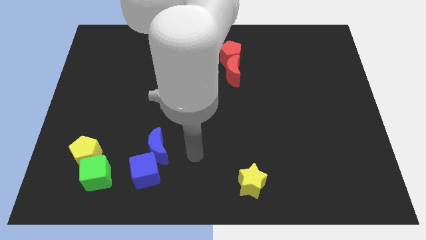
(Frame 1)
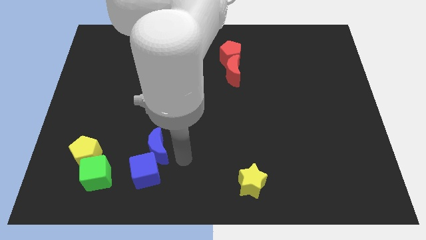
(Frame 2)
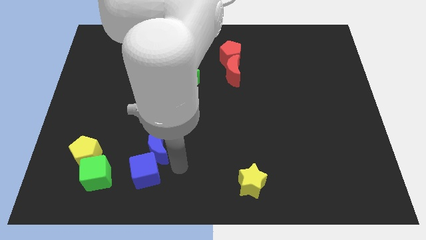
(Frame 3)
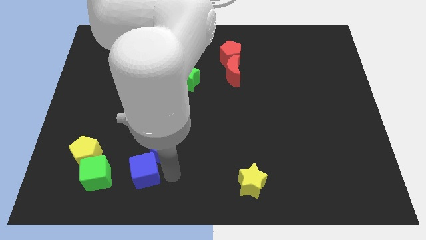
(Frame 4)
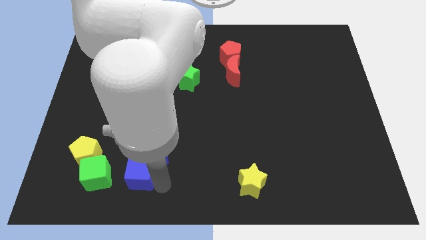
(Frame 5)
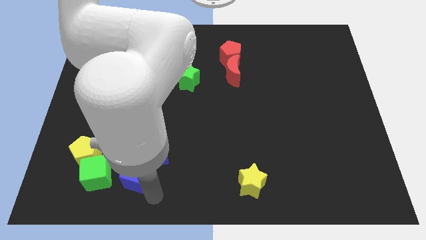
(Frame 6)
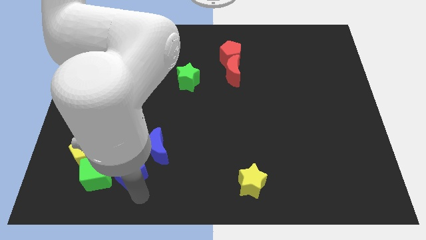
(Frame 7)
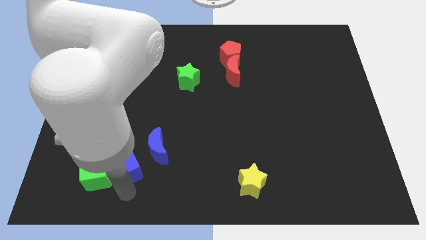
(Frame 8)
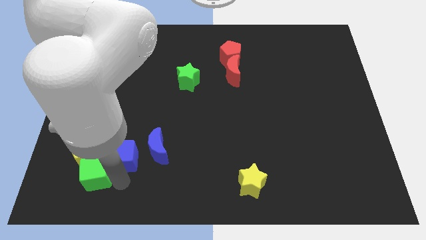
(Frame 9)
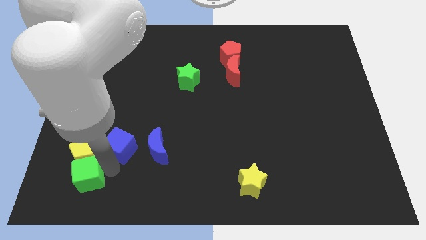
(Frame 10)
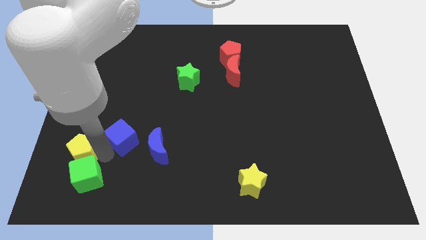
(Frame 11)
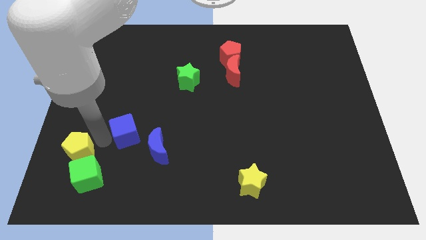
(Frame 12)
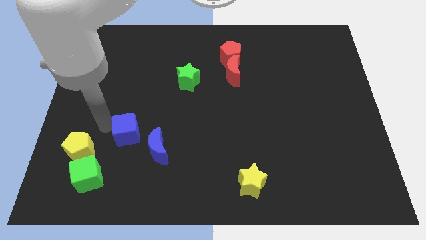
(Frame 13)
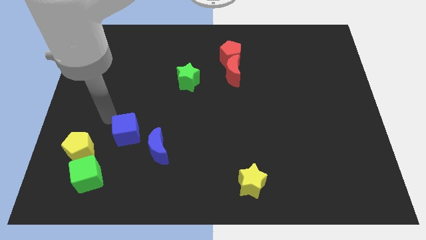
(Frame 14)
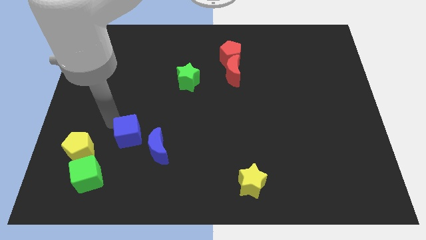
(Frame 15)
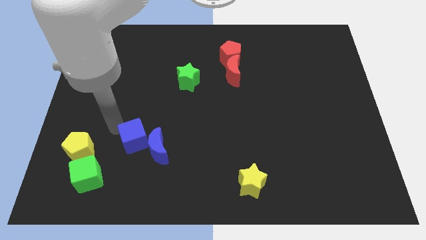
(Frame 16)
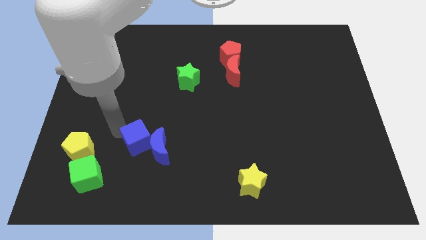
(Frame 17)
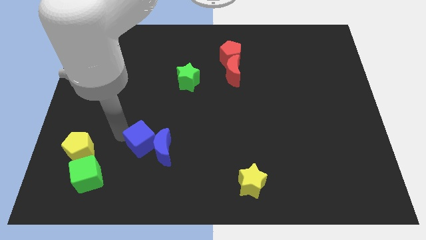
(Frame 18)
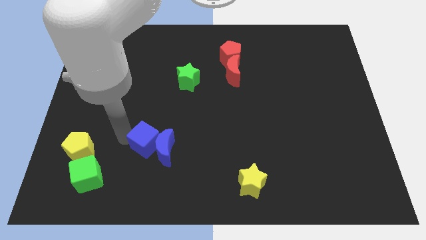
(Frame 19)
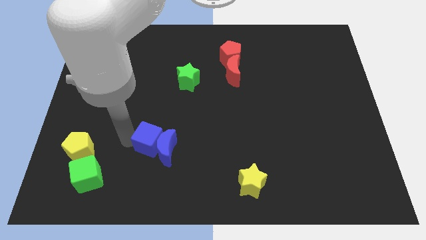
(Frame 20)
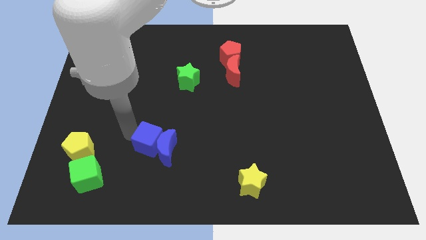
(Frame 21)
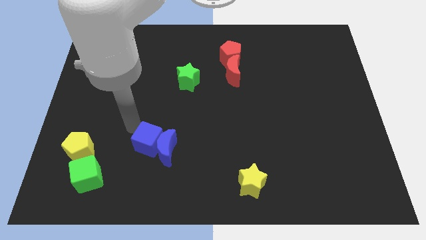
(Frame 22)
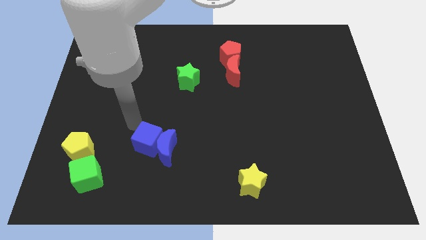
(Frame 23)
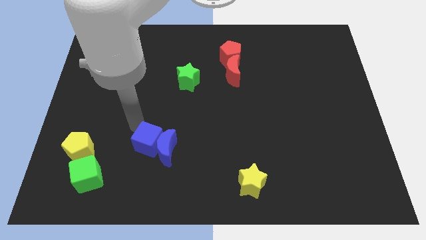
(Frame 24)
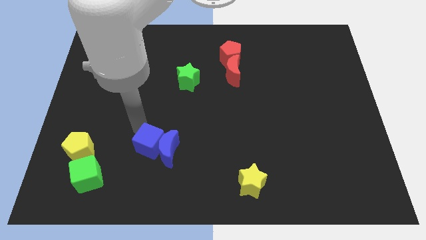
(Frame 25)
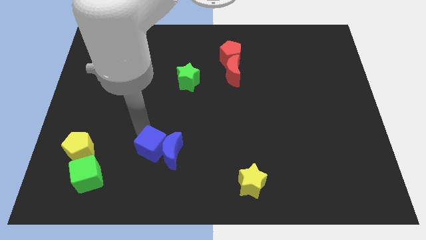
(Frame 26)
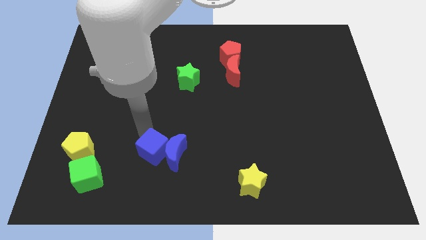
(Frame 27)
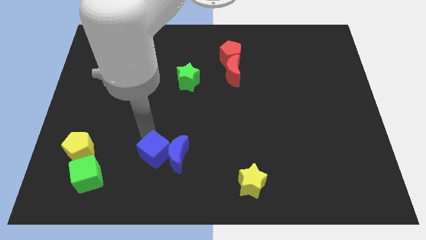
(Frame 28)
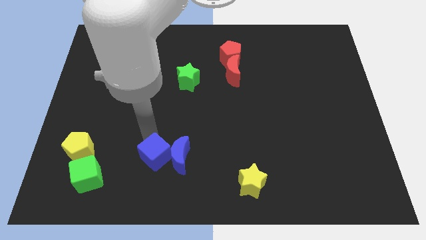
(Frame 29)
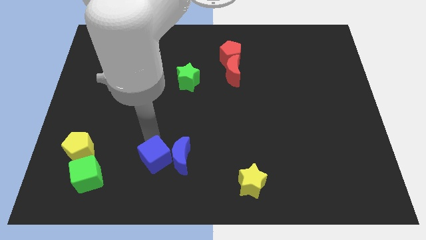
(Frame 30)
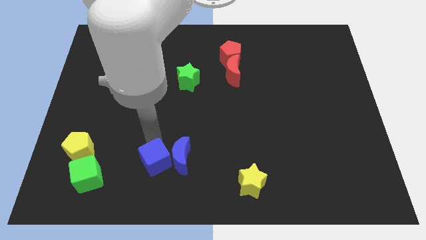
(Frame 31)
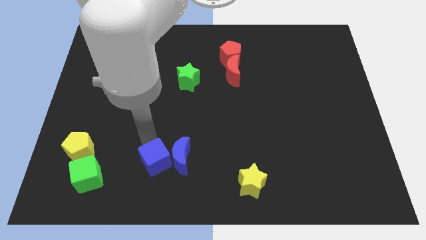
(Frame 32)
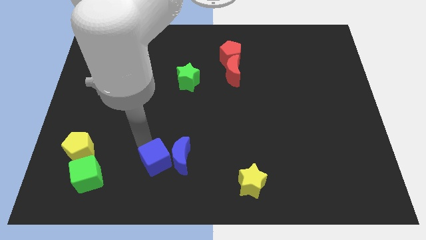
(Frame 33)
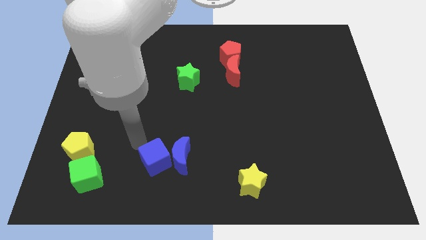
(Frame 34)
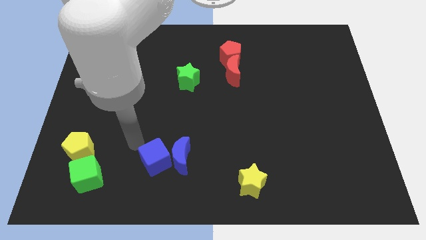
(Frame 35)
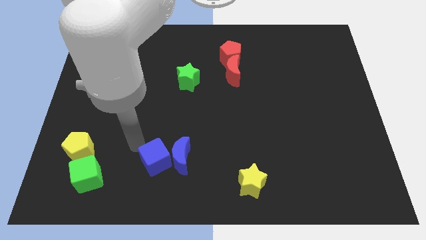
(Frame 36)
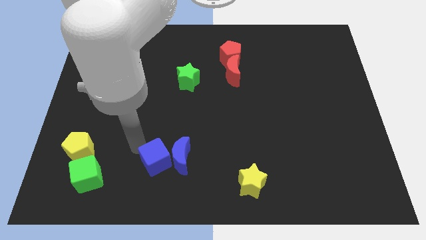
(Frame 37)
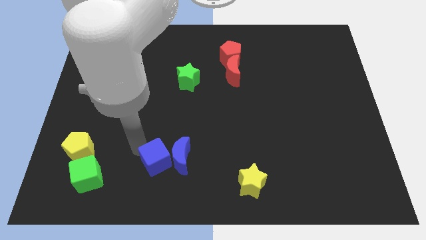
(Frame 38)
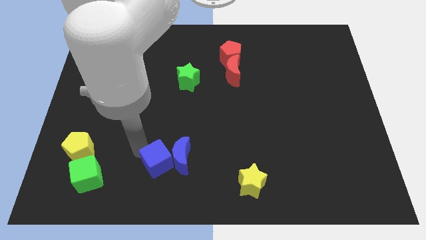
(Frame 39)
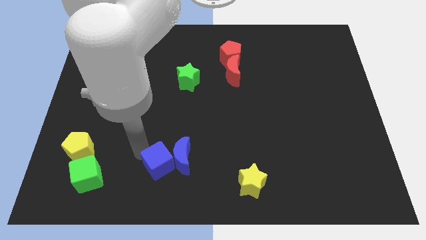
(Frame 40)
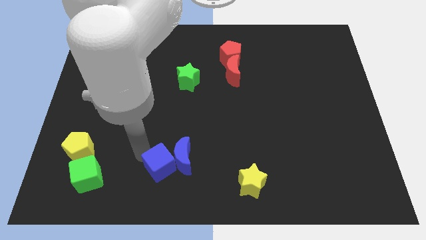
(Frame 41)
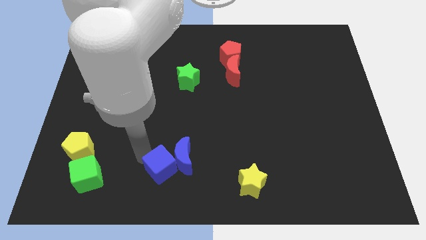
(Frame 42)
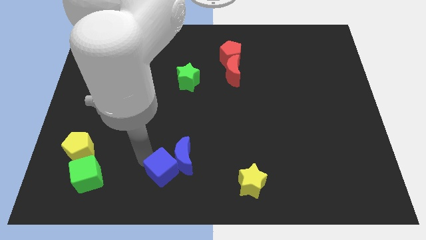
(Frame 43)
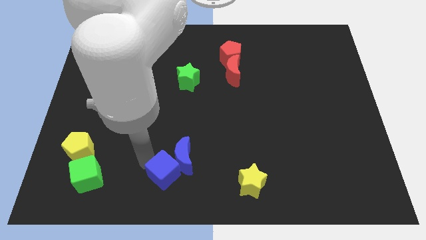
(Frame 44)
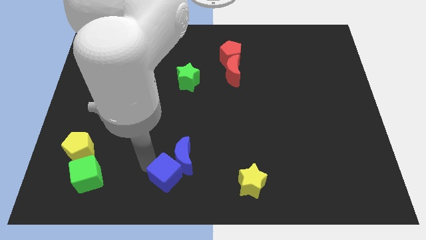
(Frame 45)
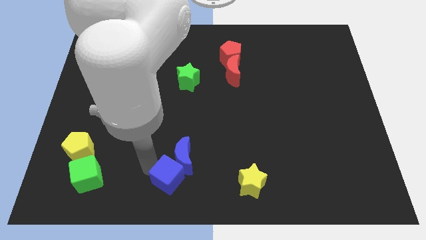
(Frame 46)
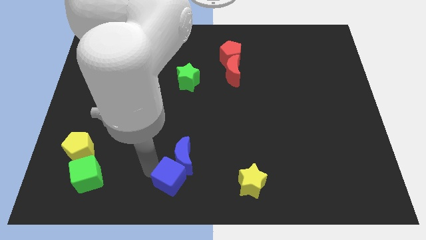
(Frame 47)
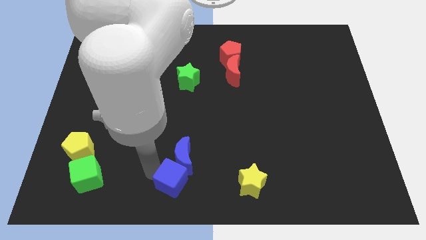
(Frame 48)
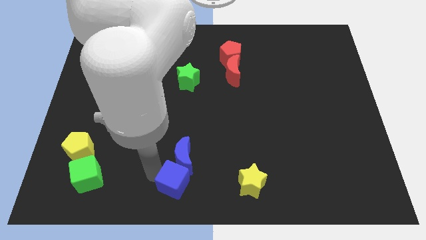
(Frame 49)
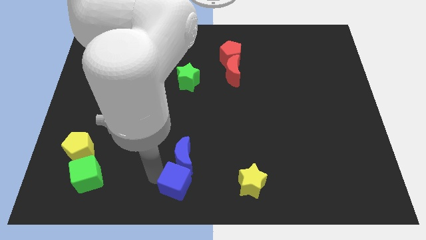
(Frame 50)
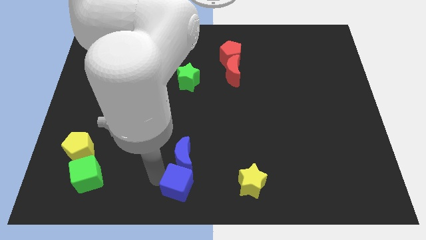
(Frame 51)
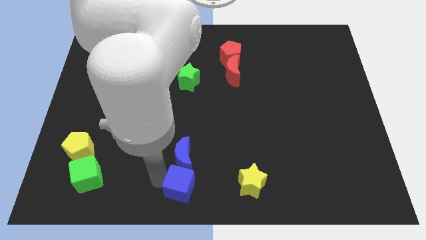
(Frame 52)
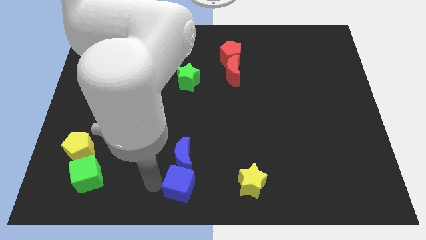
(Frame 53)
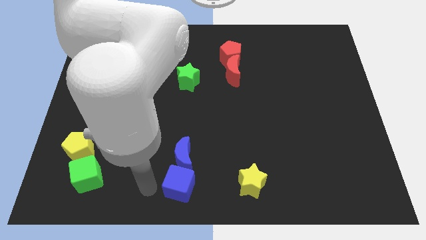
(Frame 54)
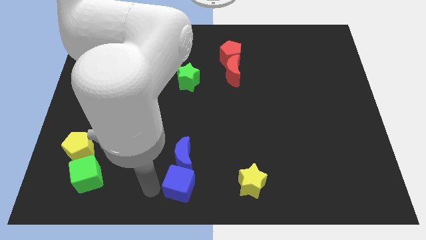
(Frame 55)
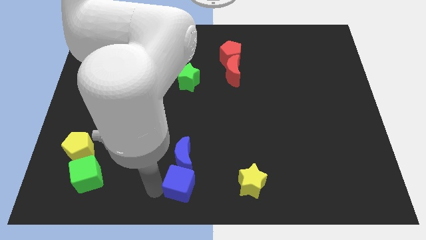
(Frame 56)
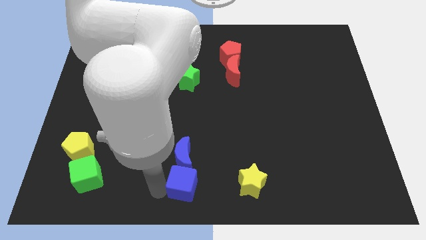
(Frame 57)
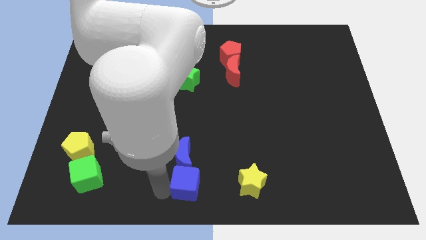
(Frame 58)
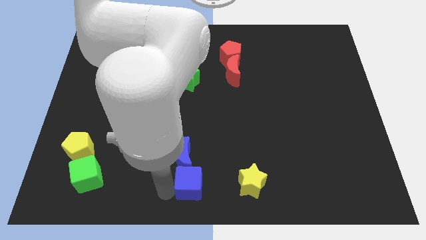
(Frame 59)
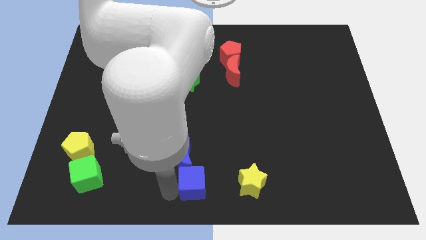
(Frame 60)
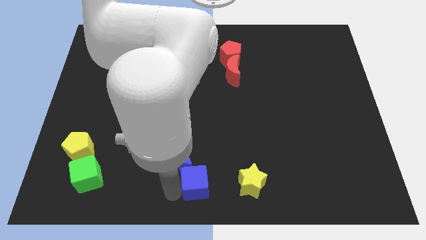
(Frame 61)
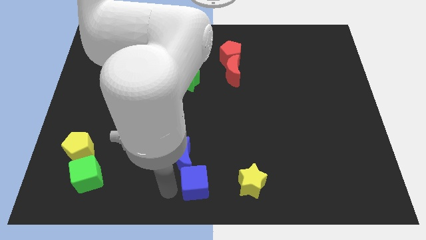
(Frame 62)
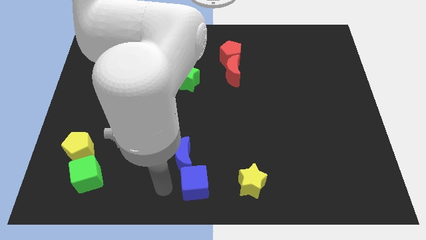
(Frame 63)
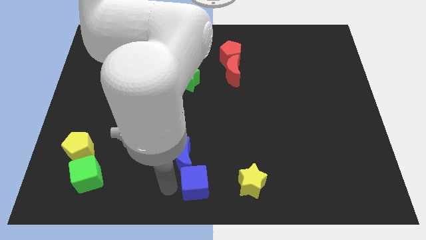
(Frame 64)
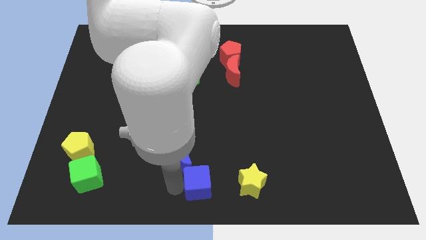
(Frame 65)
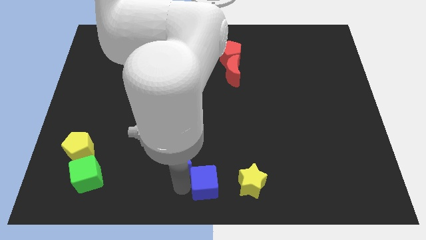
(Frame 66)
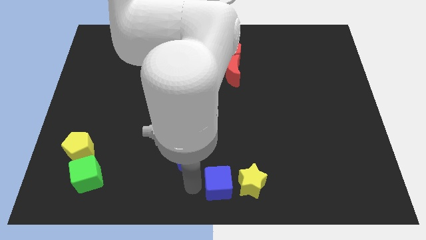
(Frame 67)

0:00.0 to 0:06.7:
move the blue cube to the yellow star
